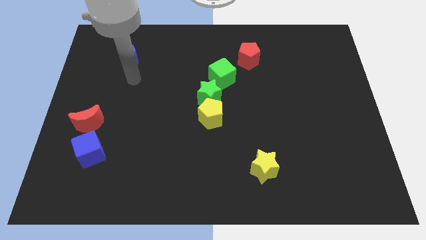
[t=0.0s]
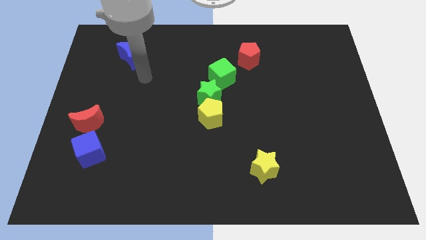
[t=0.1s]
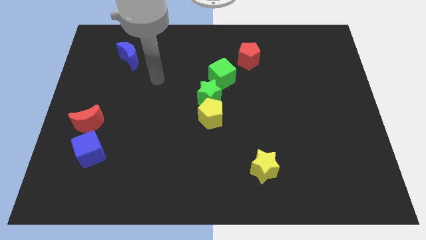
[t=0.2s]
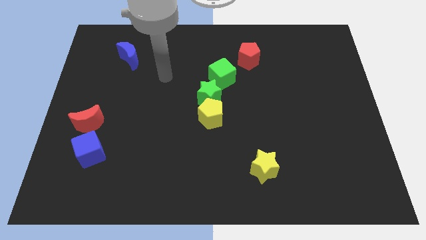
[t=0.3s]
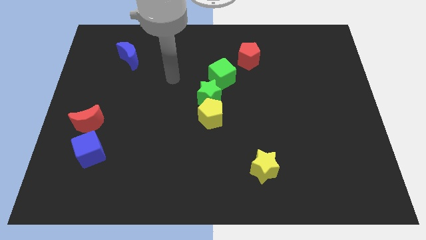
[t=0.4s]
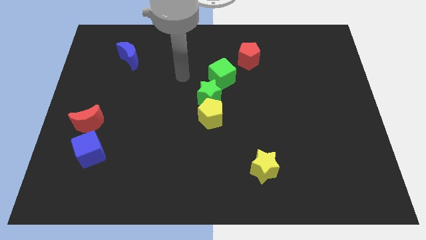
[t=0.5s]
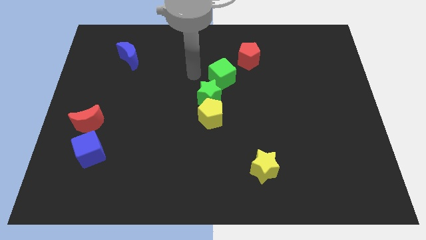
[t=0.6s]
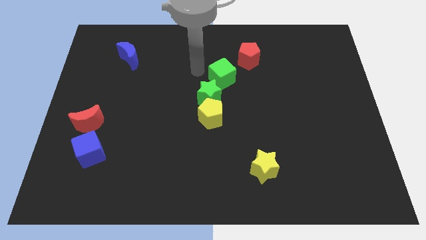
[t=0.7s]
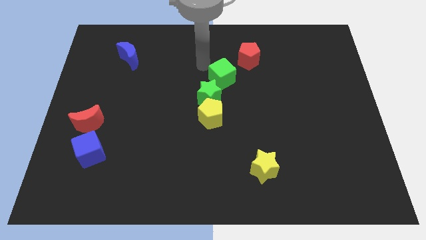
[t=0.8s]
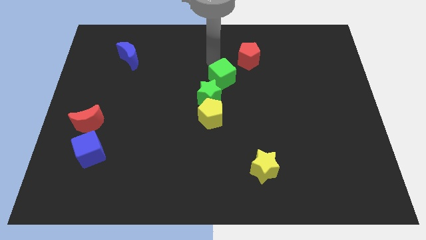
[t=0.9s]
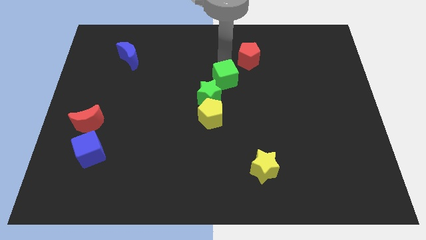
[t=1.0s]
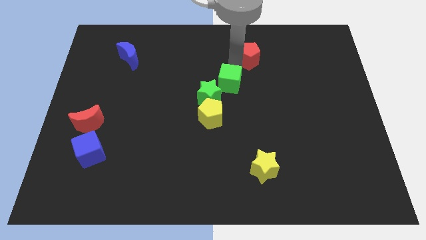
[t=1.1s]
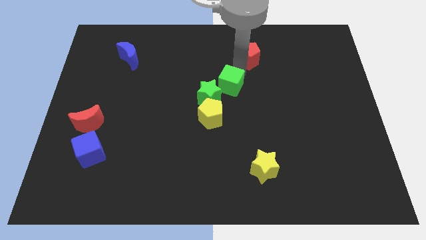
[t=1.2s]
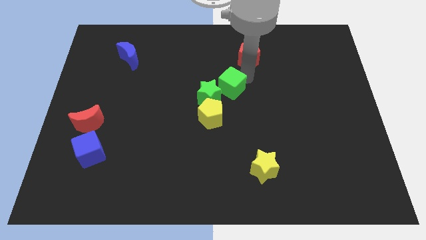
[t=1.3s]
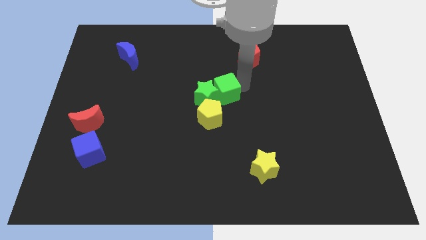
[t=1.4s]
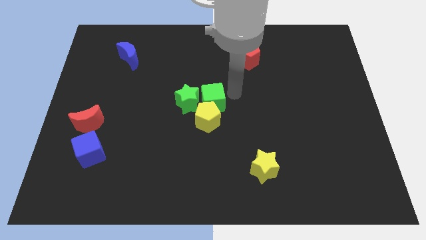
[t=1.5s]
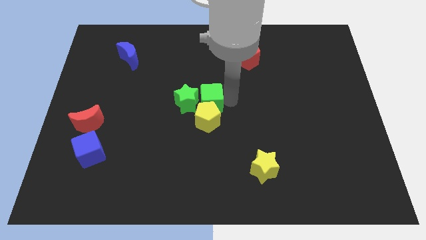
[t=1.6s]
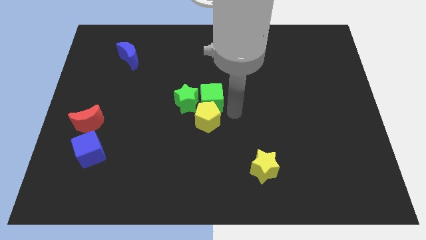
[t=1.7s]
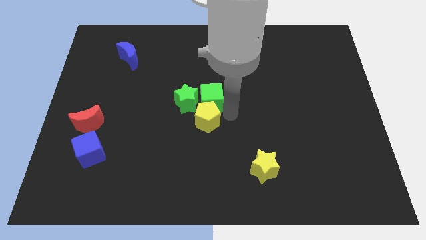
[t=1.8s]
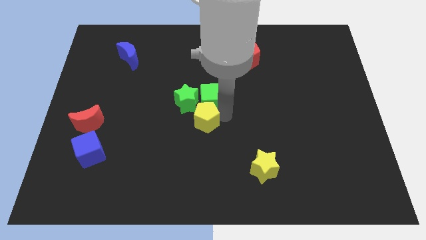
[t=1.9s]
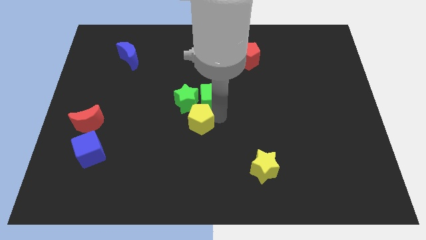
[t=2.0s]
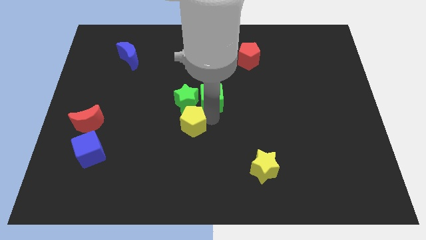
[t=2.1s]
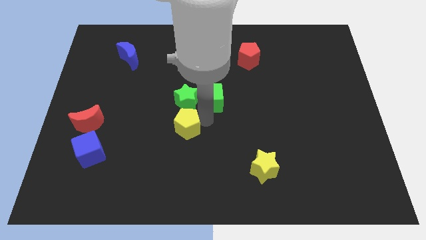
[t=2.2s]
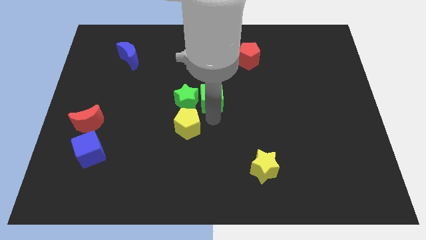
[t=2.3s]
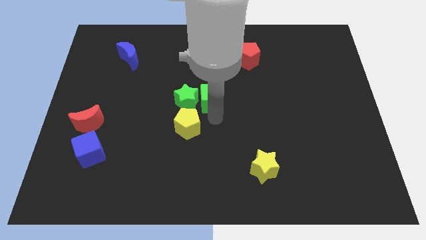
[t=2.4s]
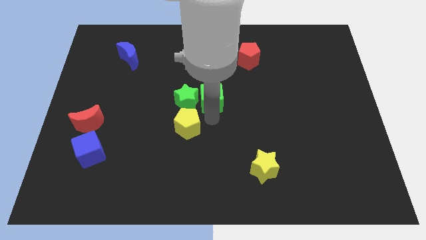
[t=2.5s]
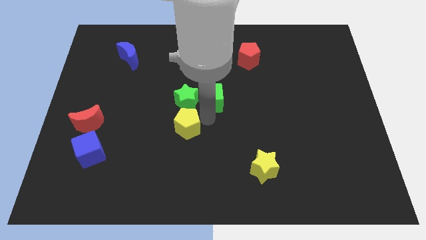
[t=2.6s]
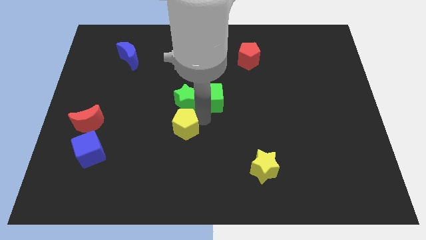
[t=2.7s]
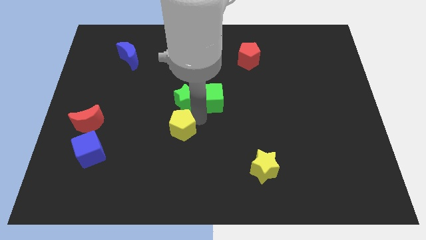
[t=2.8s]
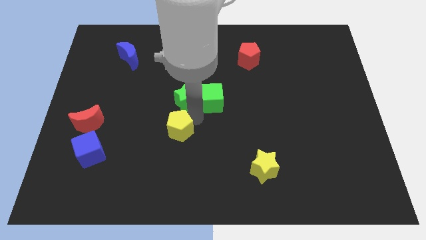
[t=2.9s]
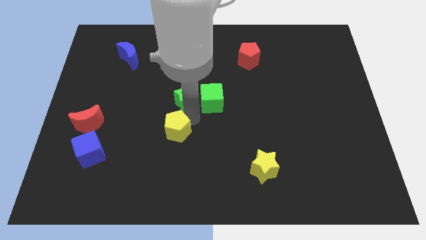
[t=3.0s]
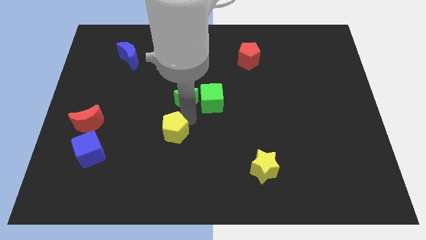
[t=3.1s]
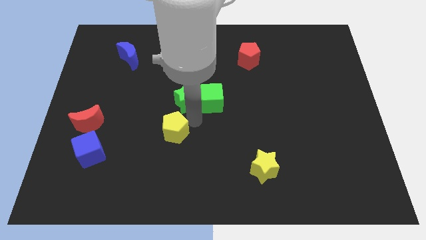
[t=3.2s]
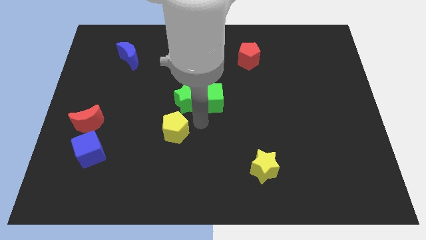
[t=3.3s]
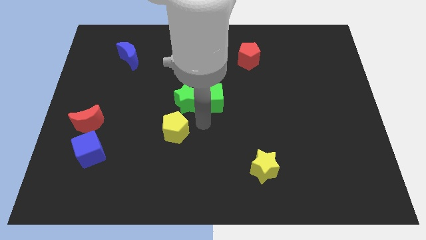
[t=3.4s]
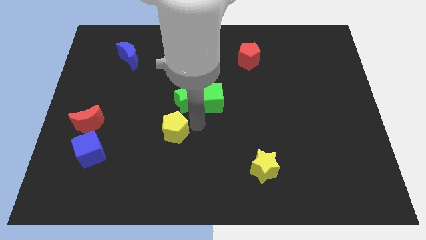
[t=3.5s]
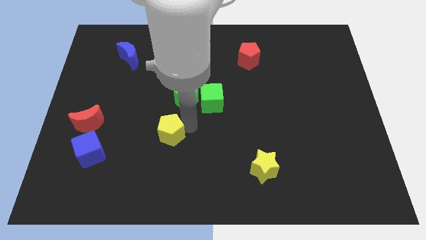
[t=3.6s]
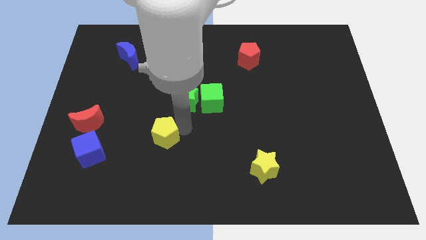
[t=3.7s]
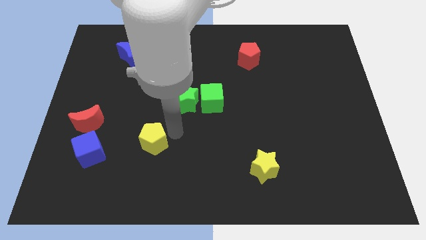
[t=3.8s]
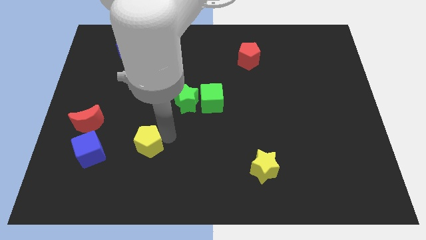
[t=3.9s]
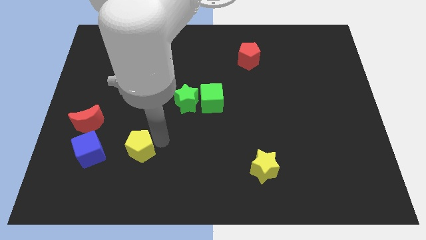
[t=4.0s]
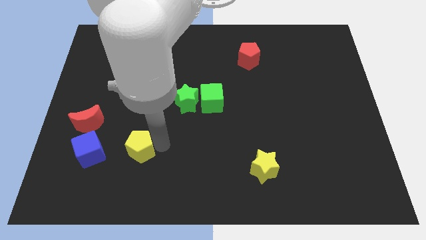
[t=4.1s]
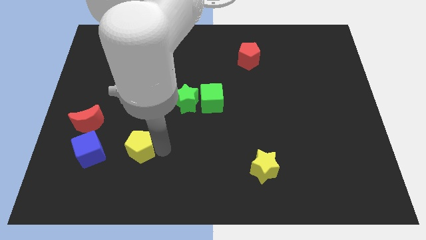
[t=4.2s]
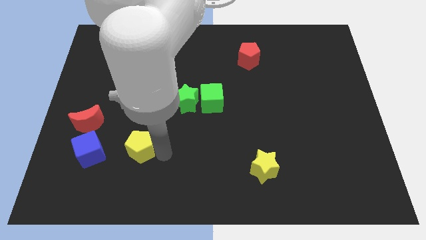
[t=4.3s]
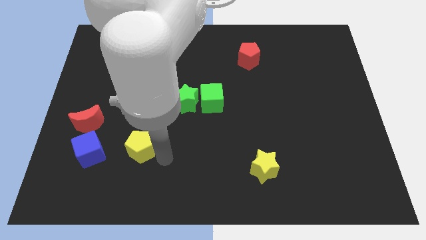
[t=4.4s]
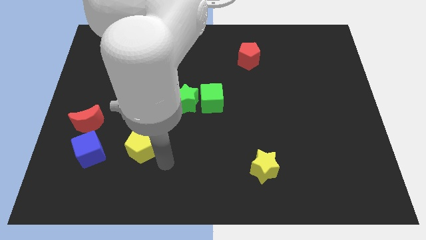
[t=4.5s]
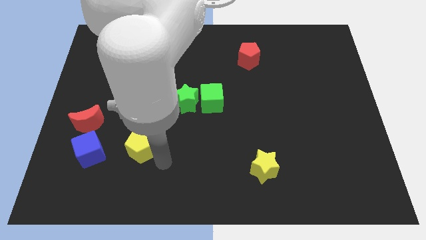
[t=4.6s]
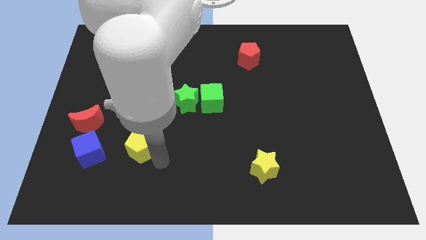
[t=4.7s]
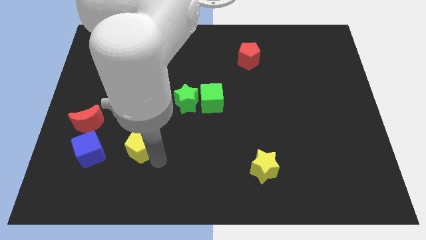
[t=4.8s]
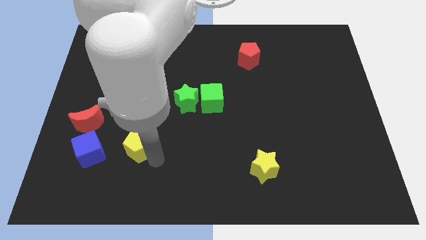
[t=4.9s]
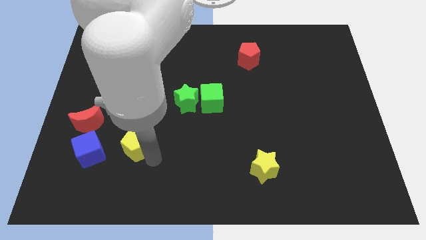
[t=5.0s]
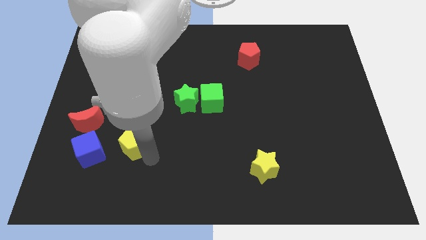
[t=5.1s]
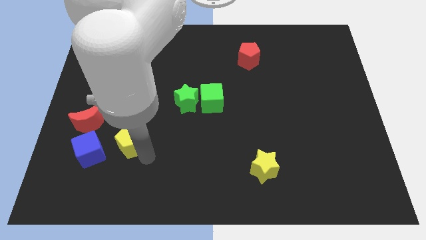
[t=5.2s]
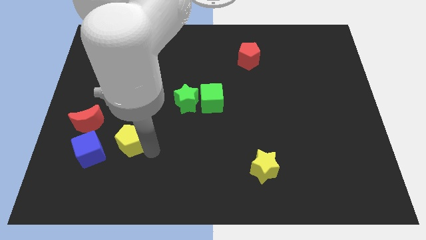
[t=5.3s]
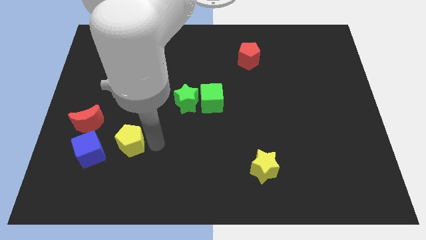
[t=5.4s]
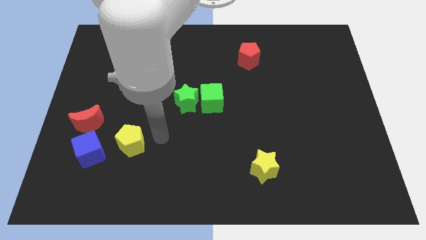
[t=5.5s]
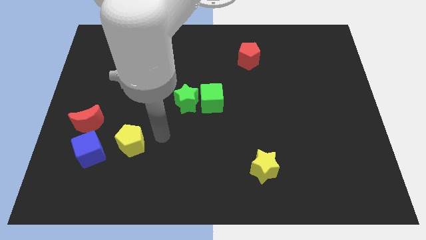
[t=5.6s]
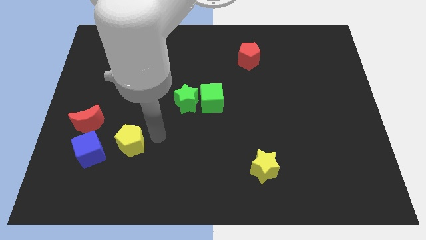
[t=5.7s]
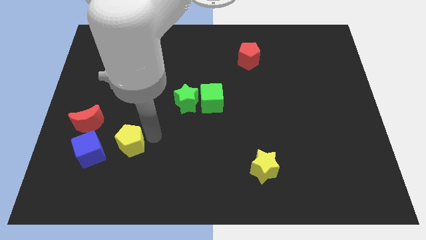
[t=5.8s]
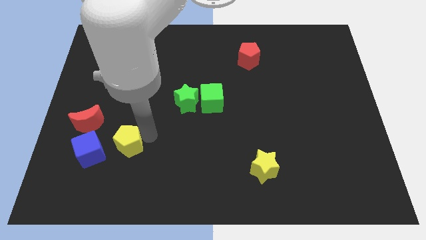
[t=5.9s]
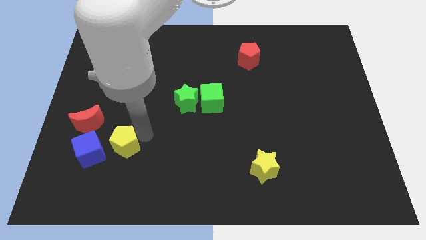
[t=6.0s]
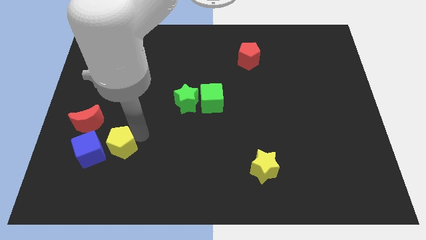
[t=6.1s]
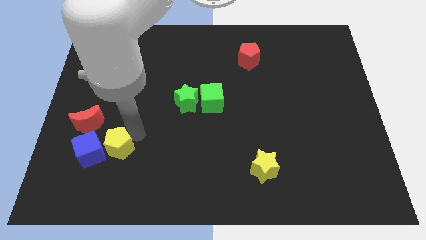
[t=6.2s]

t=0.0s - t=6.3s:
put the yellow pentagon towards the blue cube

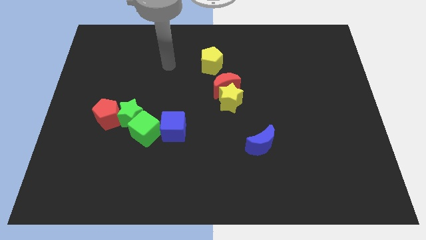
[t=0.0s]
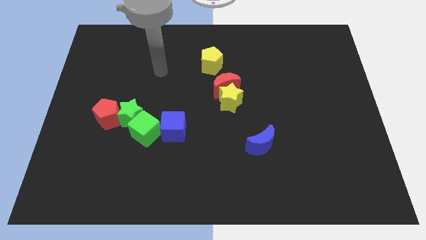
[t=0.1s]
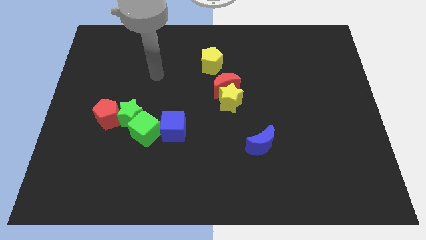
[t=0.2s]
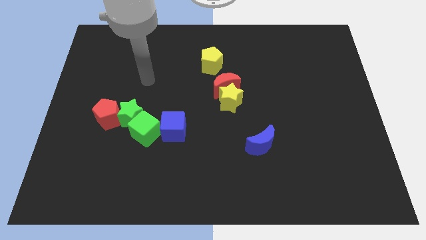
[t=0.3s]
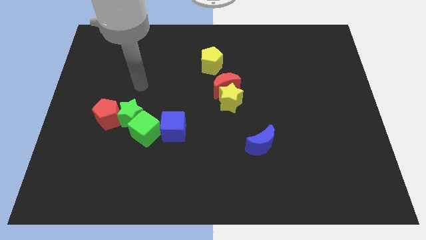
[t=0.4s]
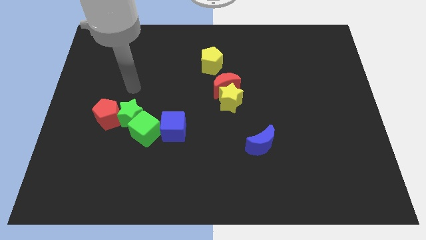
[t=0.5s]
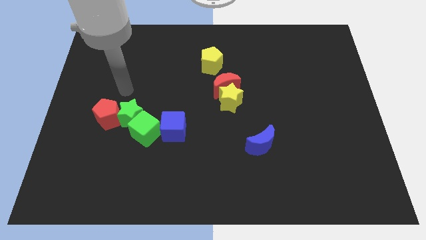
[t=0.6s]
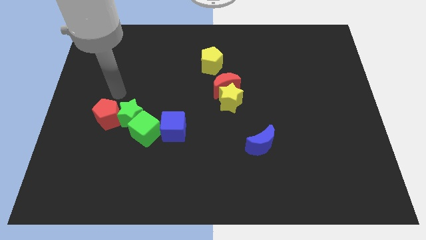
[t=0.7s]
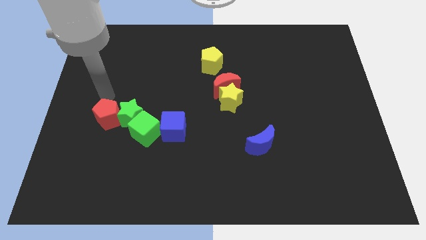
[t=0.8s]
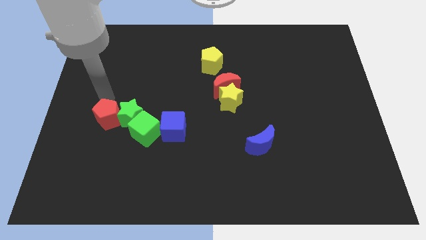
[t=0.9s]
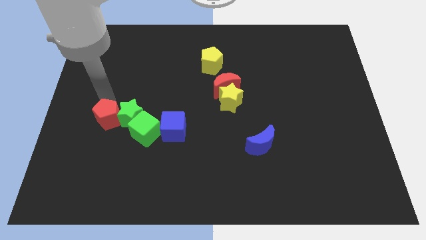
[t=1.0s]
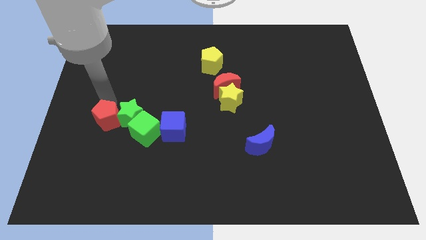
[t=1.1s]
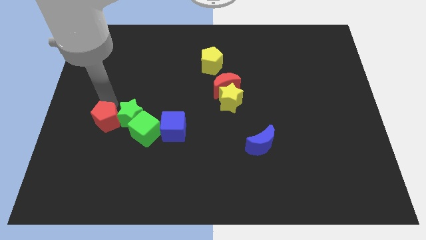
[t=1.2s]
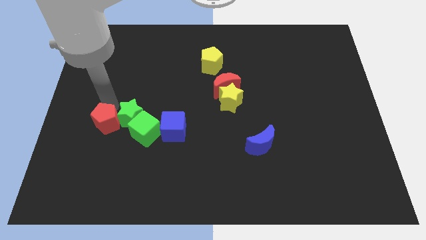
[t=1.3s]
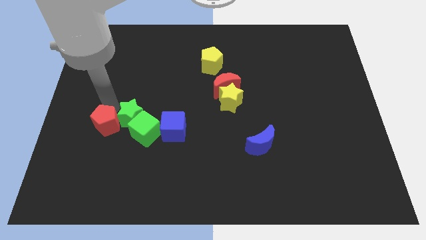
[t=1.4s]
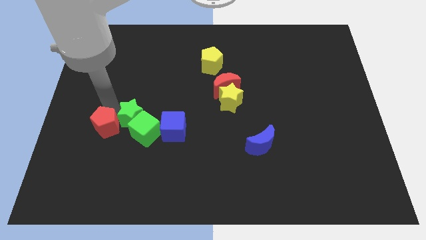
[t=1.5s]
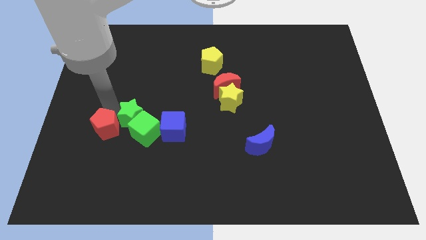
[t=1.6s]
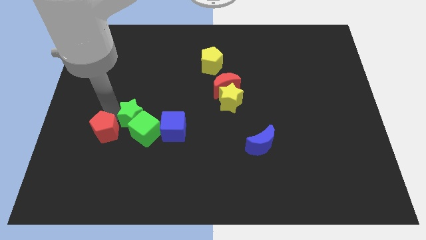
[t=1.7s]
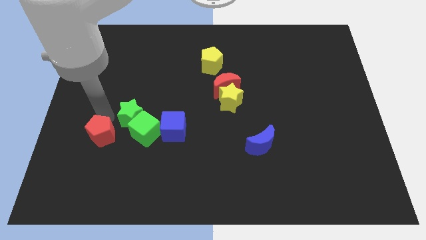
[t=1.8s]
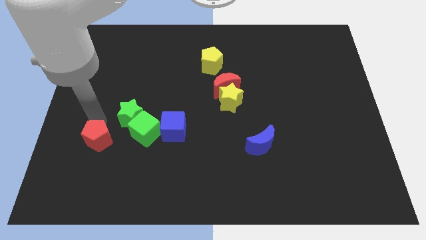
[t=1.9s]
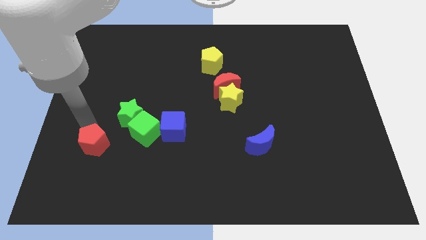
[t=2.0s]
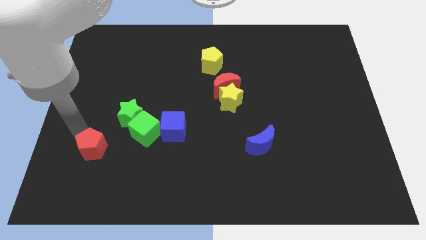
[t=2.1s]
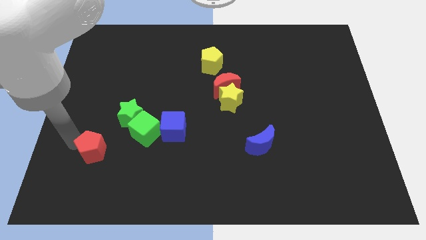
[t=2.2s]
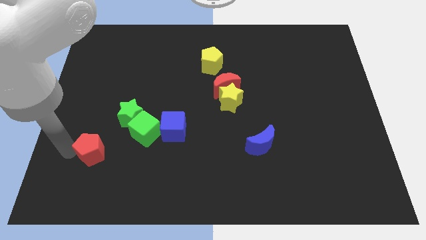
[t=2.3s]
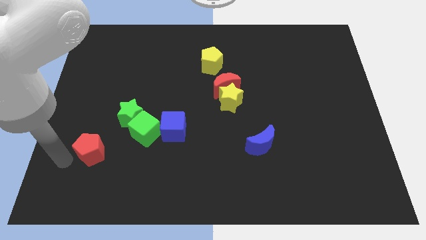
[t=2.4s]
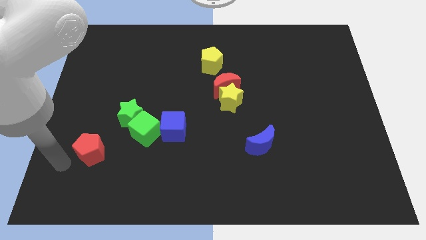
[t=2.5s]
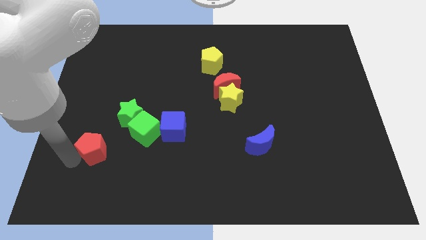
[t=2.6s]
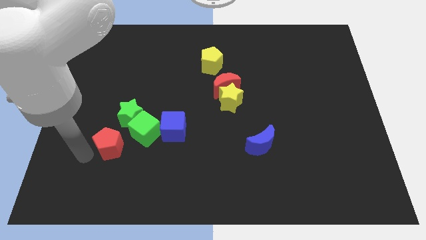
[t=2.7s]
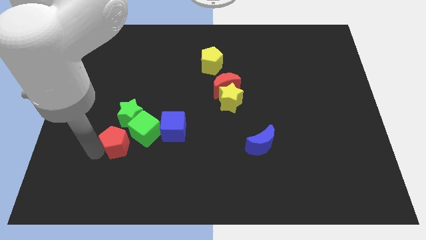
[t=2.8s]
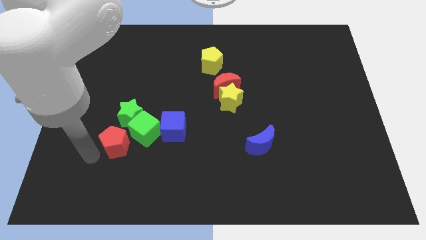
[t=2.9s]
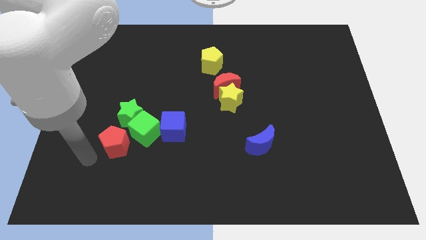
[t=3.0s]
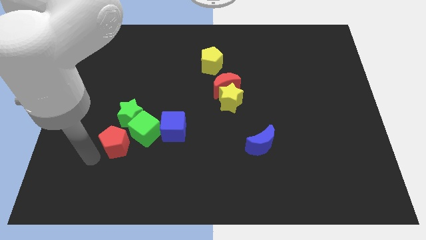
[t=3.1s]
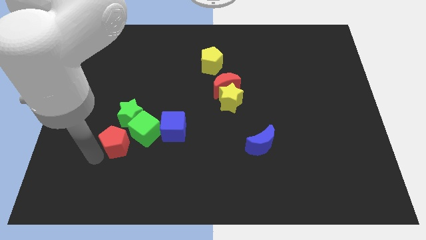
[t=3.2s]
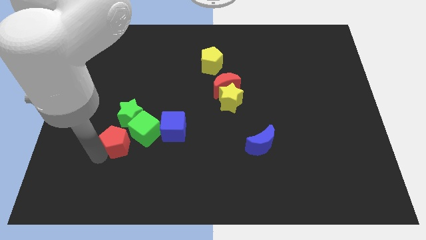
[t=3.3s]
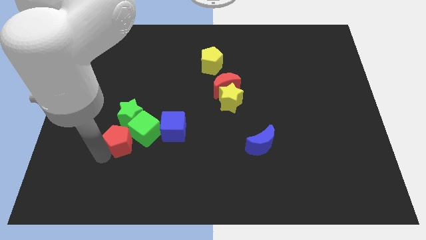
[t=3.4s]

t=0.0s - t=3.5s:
move the red pentagon next to the green cube
